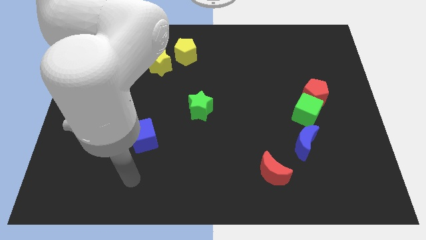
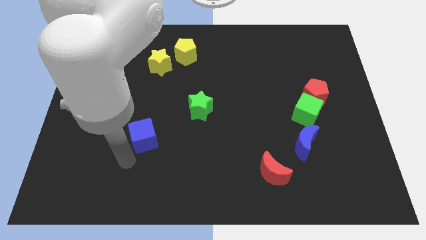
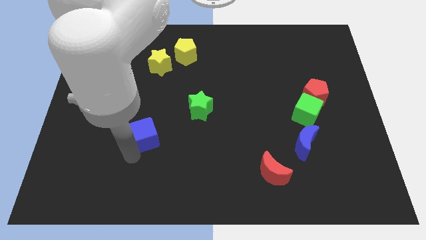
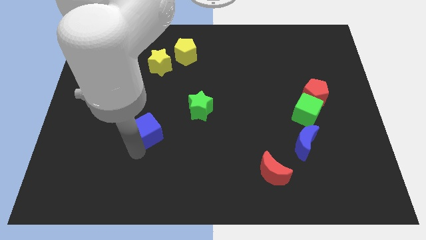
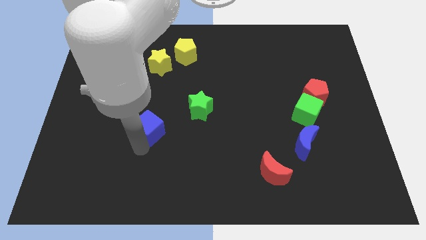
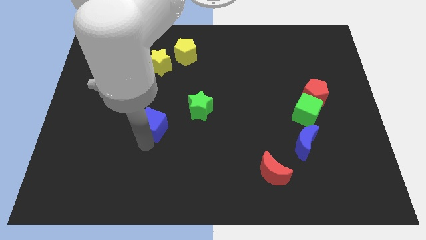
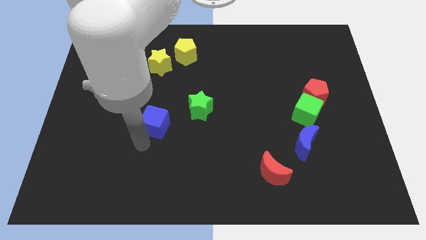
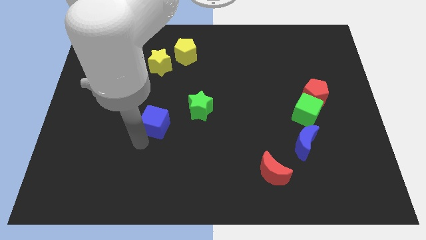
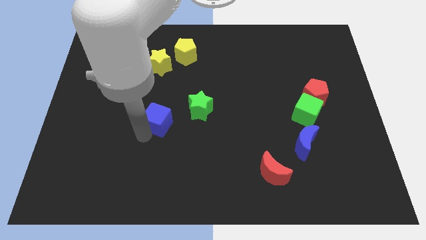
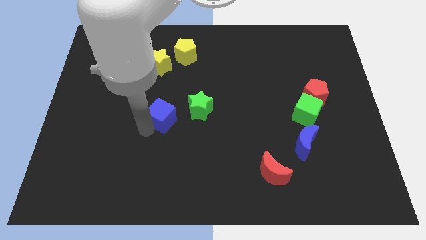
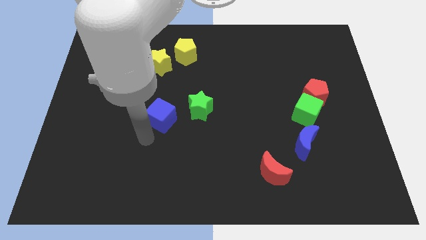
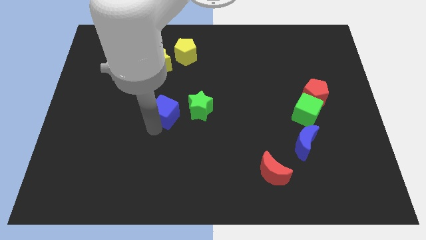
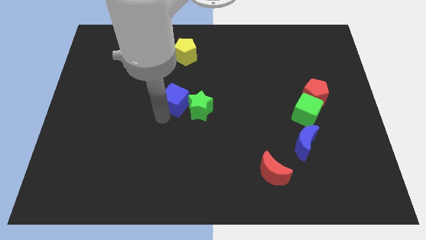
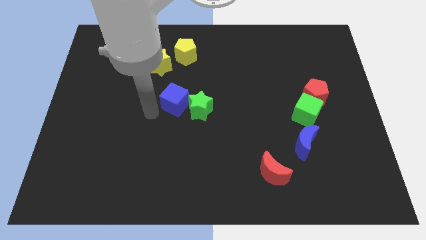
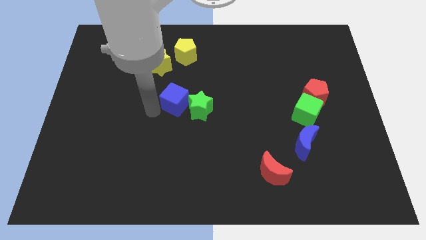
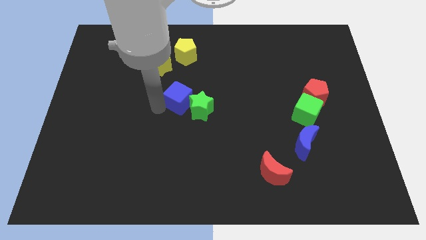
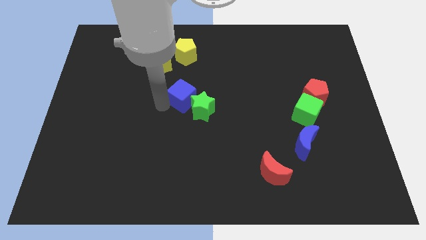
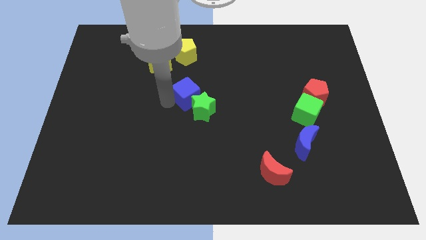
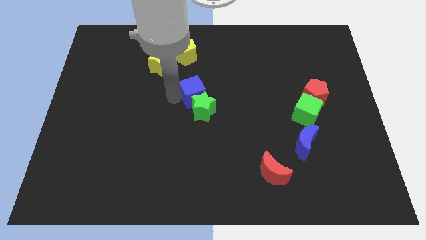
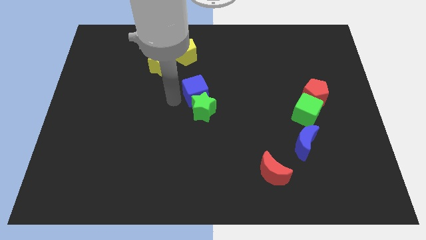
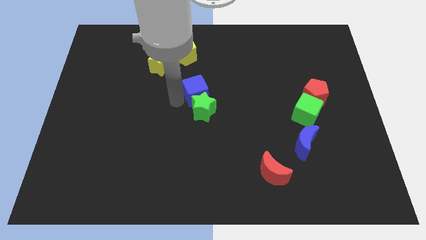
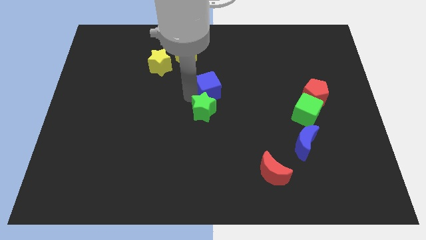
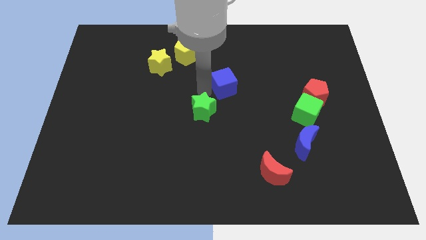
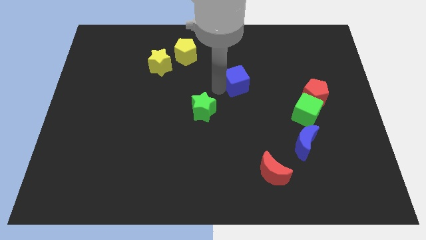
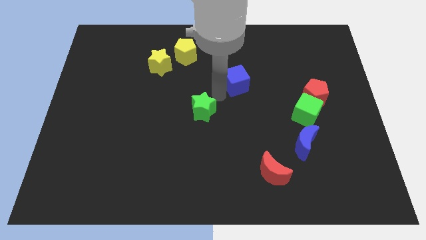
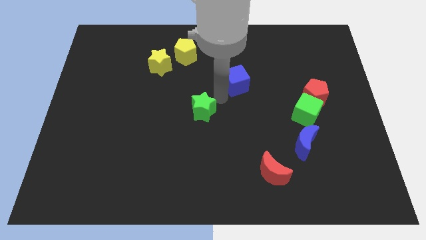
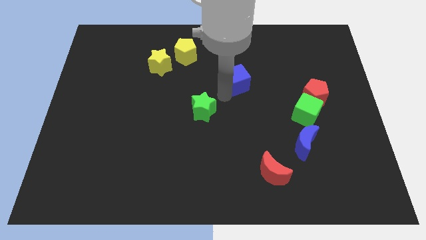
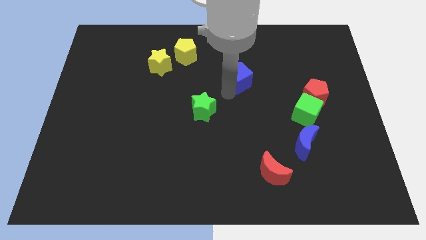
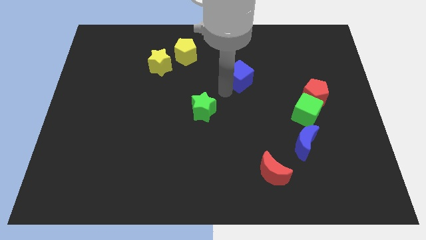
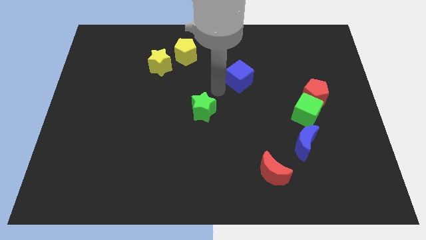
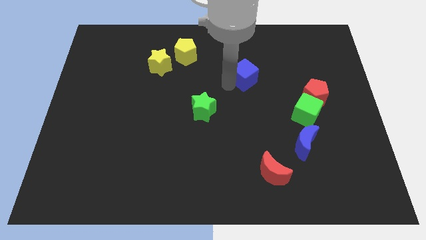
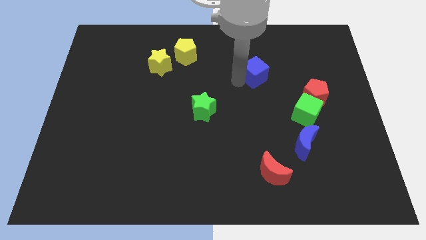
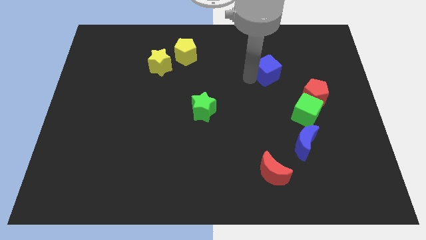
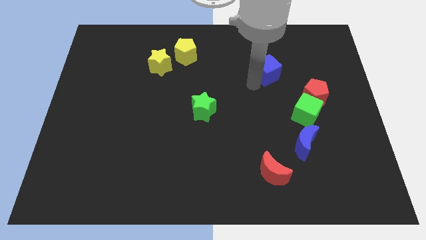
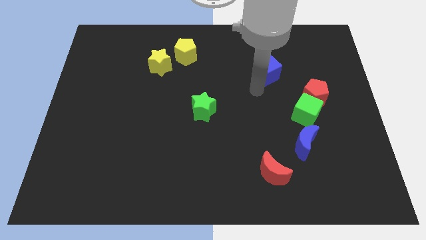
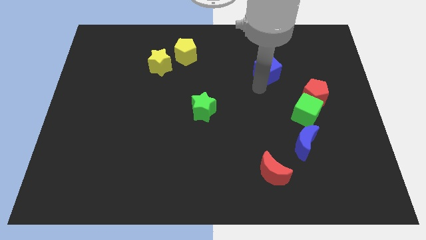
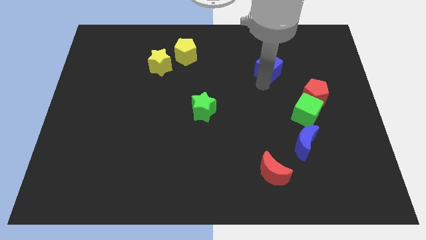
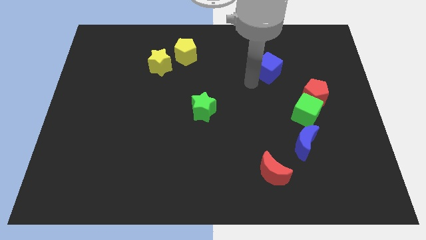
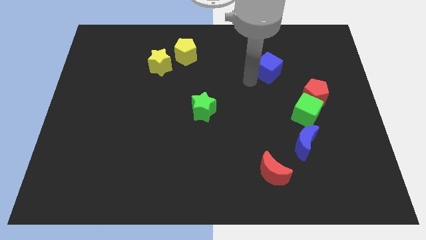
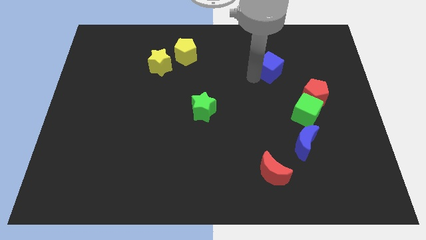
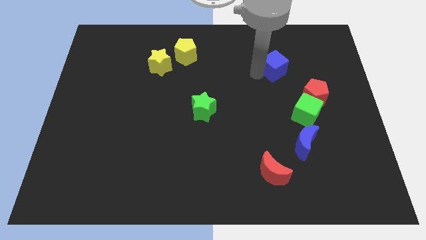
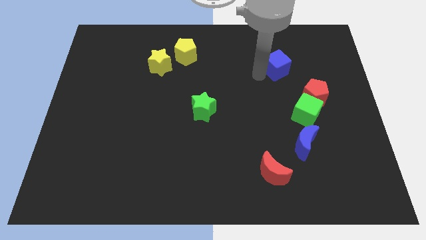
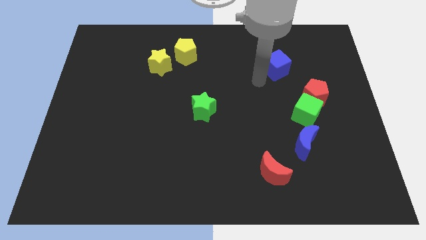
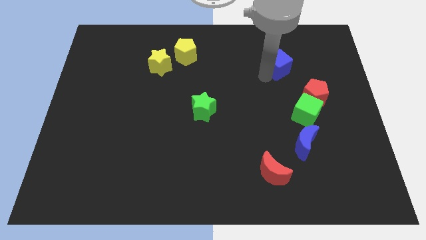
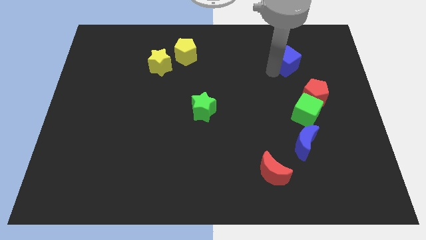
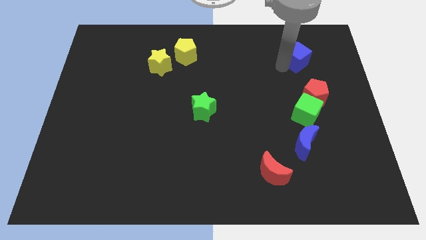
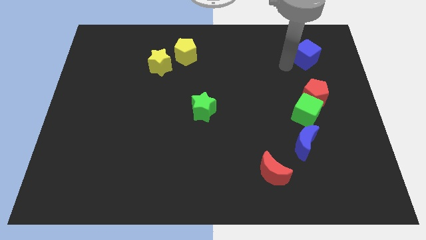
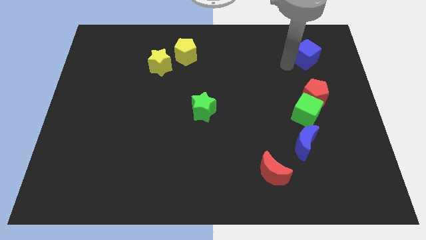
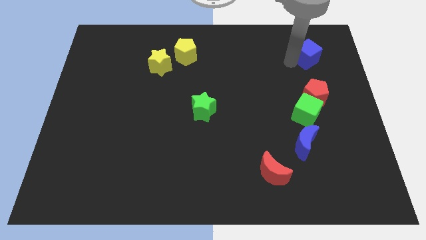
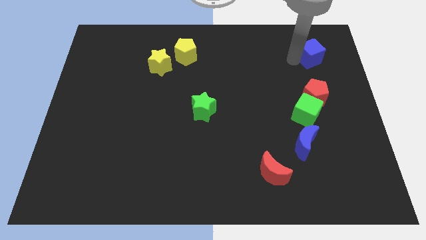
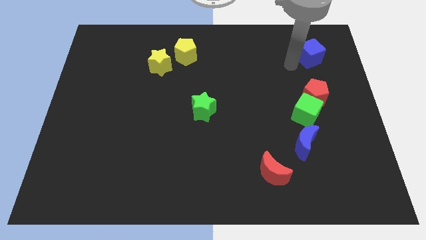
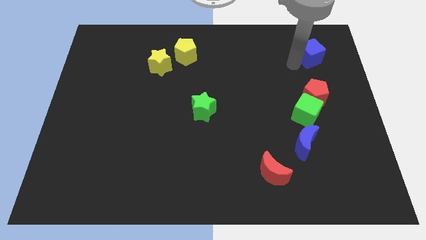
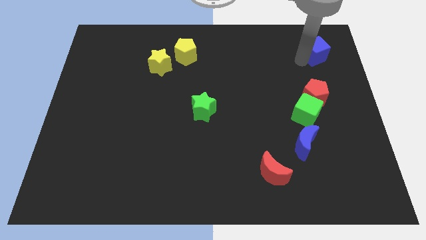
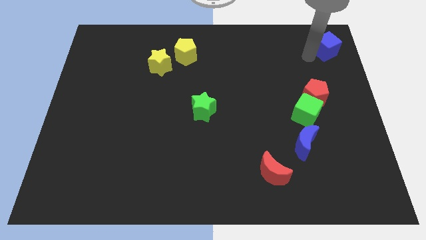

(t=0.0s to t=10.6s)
move the blue cube to the top right of the board
